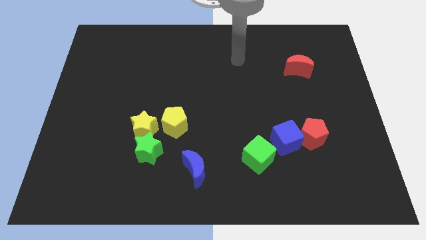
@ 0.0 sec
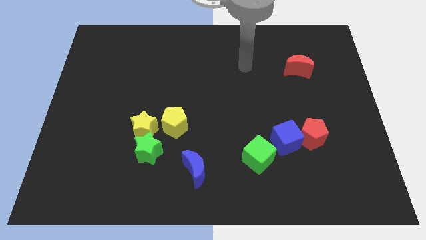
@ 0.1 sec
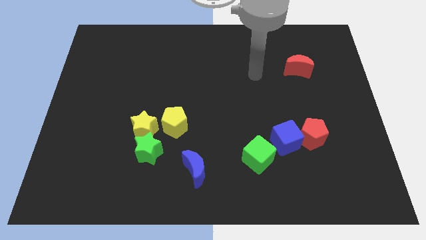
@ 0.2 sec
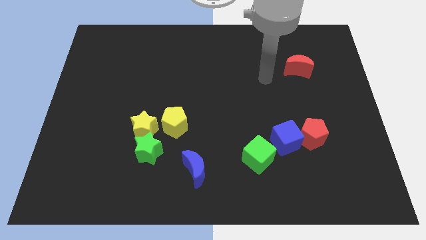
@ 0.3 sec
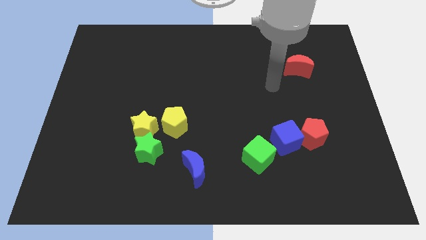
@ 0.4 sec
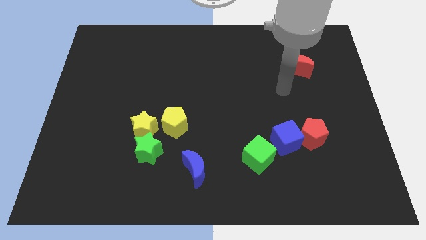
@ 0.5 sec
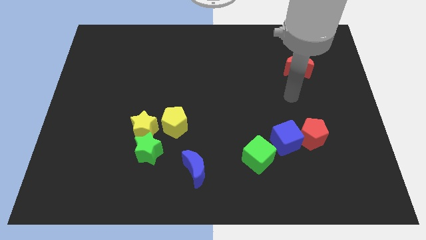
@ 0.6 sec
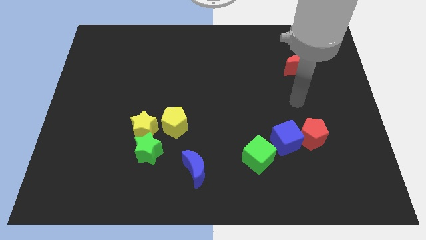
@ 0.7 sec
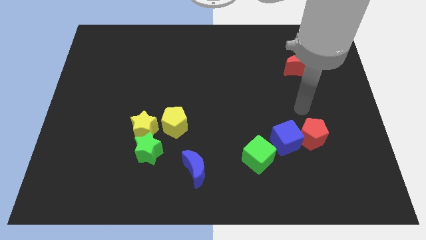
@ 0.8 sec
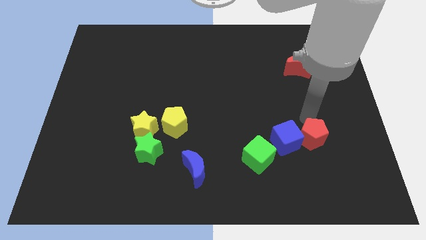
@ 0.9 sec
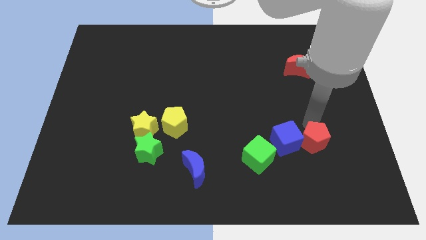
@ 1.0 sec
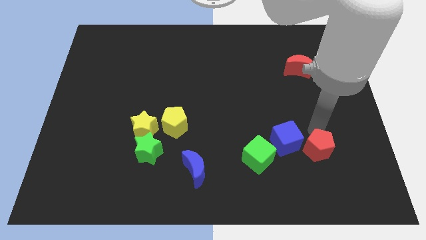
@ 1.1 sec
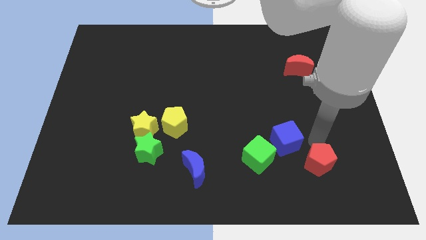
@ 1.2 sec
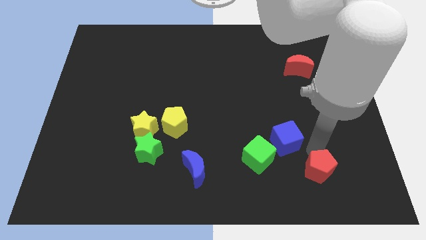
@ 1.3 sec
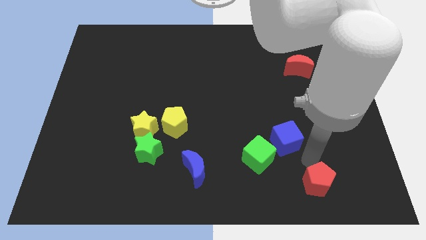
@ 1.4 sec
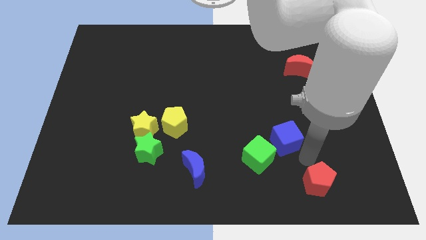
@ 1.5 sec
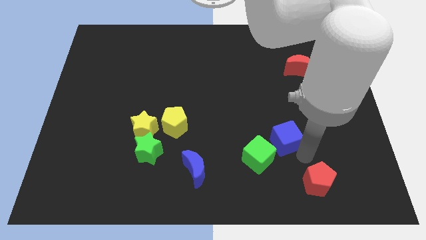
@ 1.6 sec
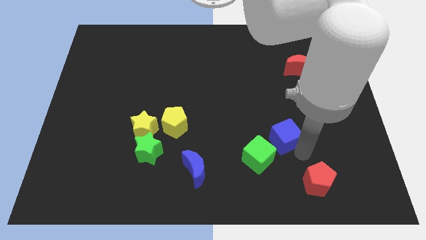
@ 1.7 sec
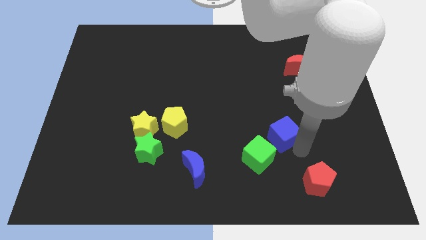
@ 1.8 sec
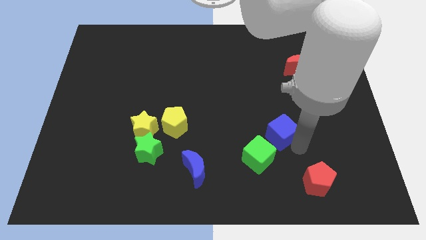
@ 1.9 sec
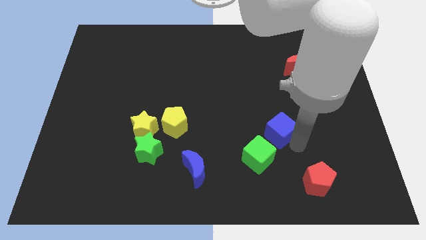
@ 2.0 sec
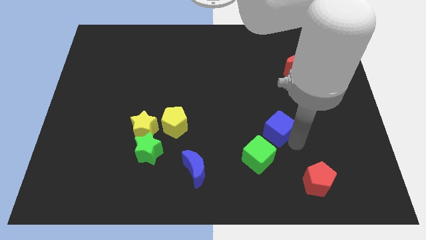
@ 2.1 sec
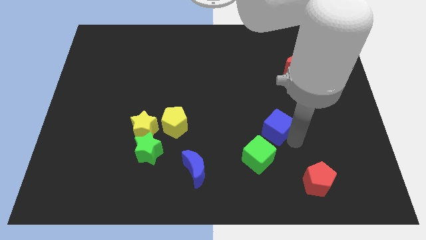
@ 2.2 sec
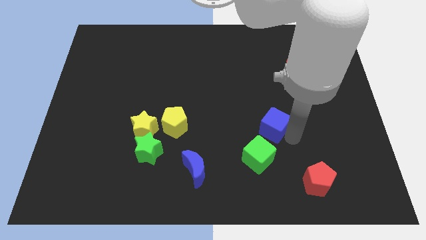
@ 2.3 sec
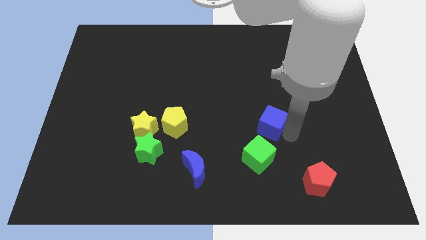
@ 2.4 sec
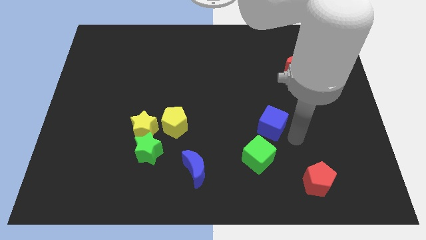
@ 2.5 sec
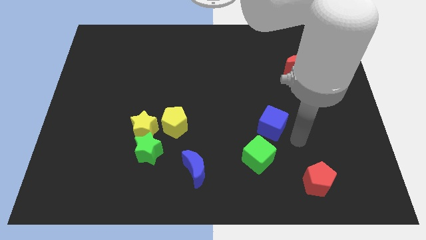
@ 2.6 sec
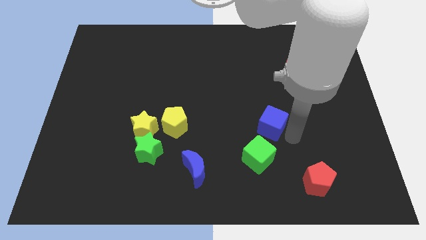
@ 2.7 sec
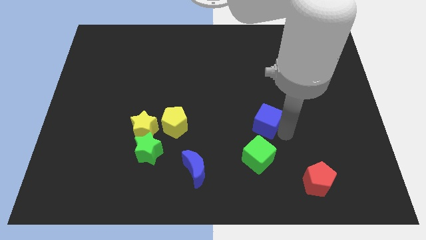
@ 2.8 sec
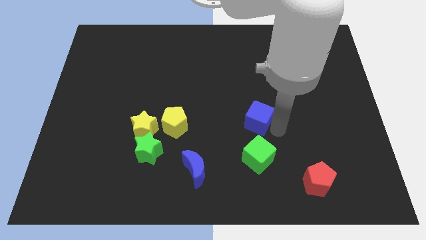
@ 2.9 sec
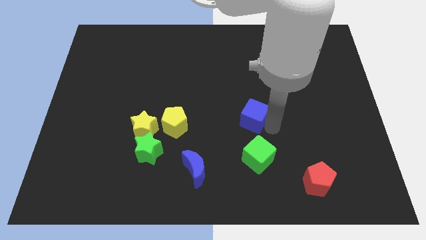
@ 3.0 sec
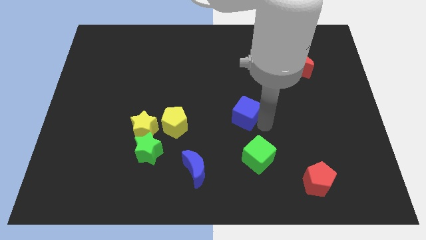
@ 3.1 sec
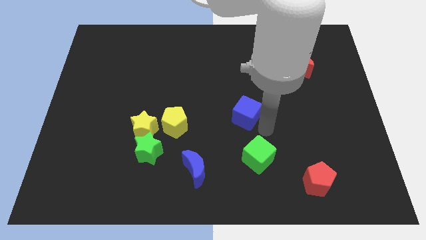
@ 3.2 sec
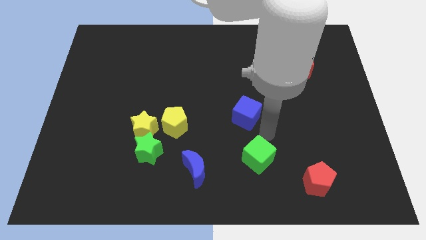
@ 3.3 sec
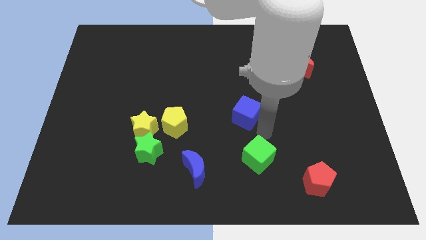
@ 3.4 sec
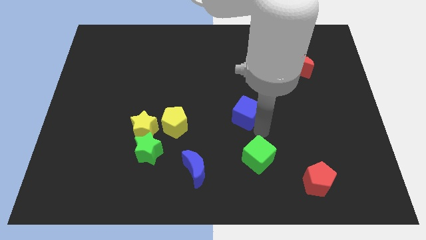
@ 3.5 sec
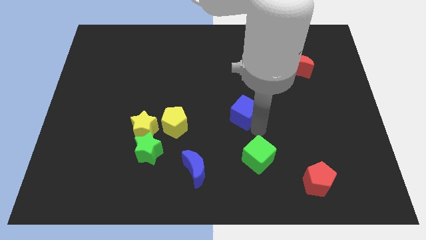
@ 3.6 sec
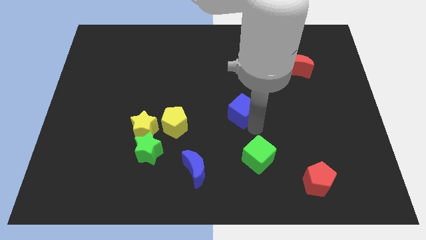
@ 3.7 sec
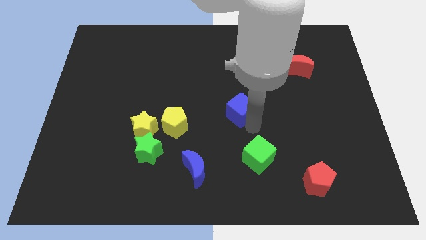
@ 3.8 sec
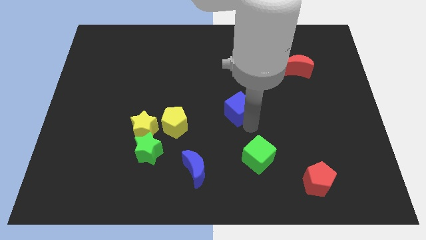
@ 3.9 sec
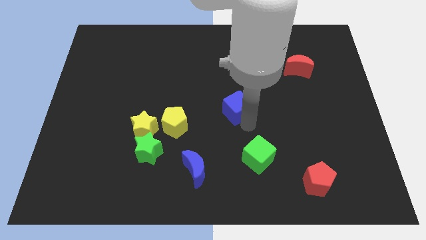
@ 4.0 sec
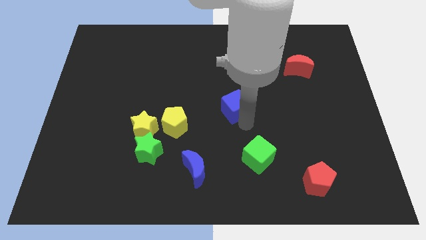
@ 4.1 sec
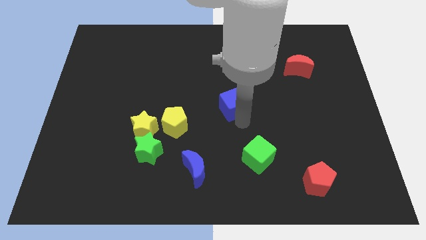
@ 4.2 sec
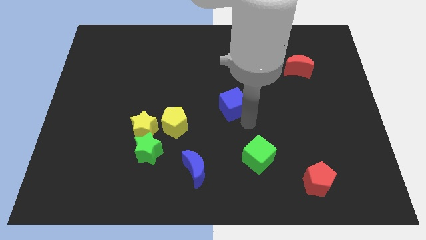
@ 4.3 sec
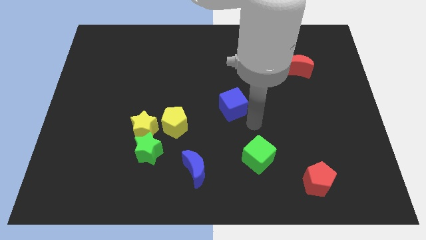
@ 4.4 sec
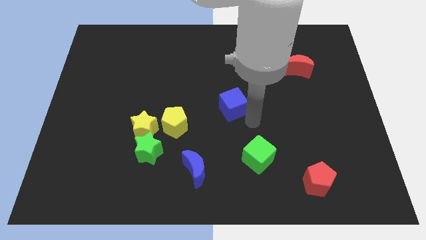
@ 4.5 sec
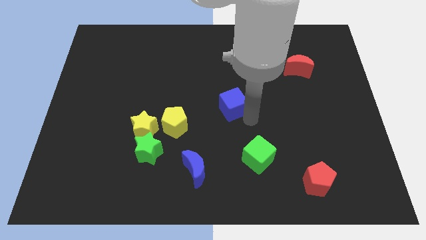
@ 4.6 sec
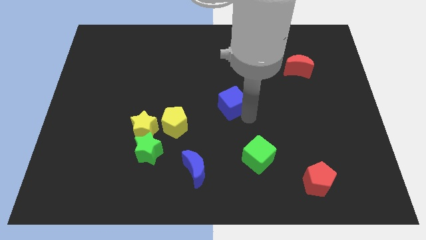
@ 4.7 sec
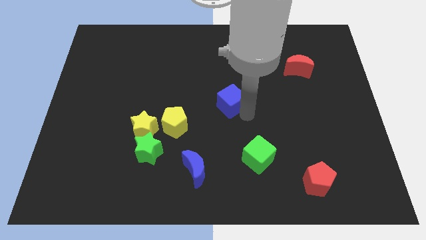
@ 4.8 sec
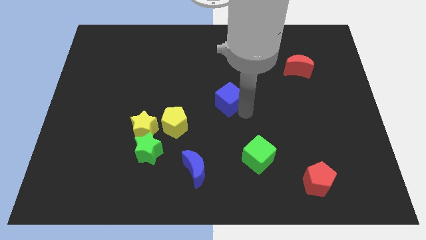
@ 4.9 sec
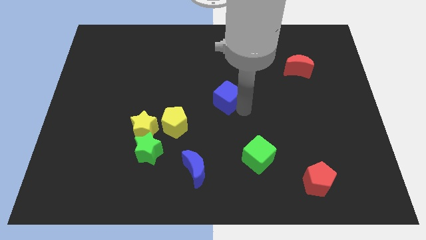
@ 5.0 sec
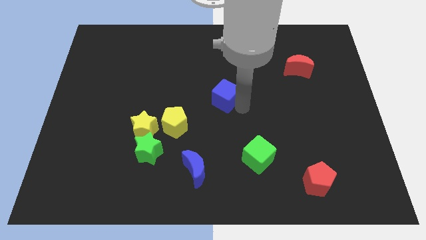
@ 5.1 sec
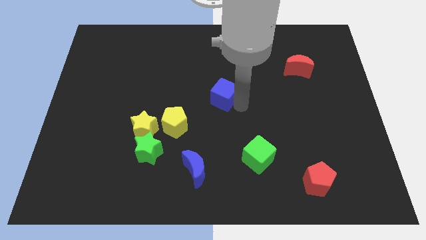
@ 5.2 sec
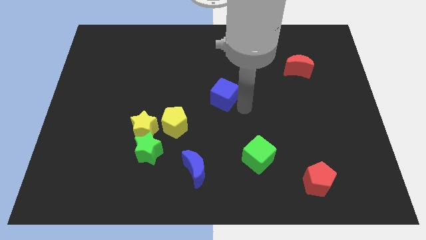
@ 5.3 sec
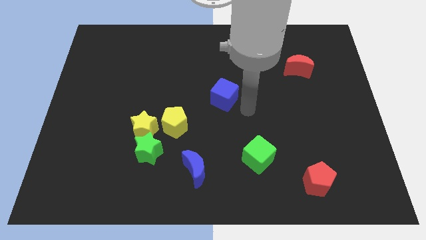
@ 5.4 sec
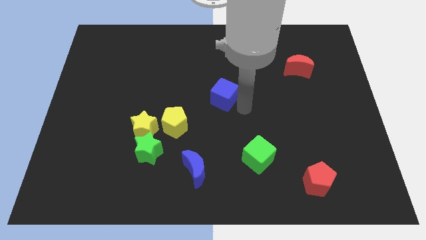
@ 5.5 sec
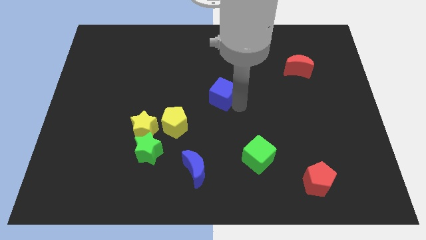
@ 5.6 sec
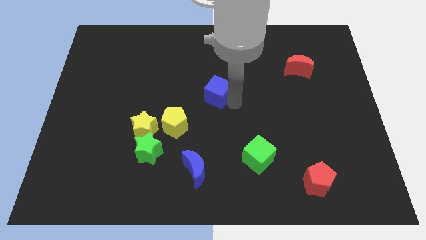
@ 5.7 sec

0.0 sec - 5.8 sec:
slide the blue cube upwards and then to the left

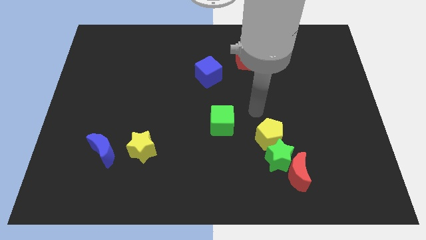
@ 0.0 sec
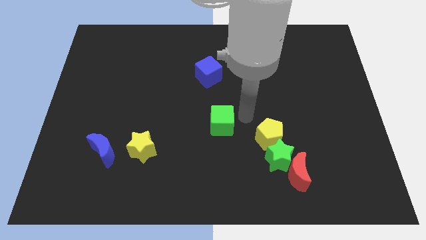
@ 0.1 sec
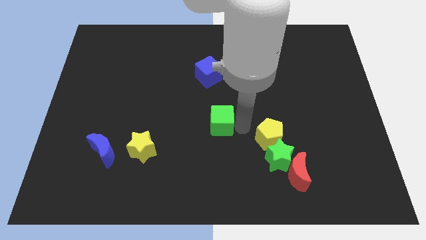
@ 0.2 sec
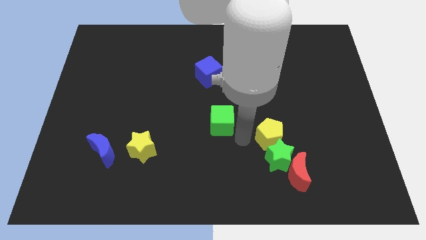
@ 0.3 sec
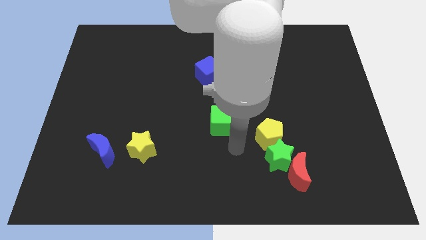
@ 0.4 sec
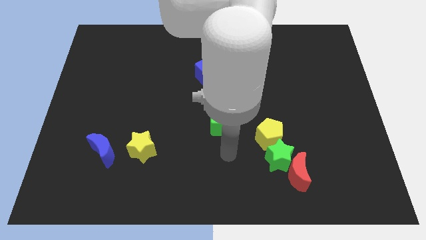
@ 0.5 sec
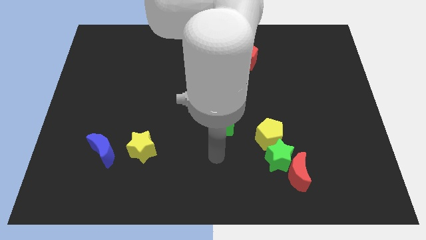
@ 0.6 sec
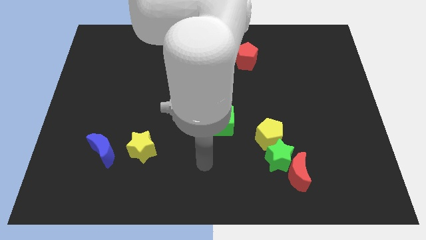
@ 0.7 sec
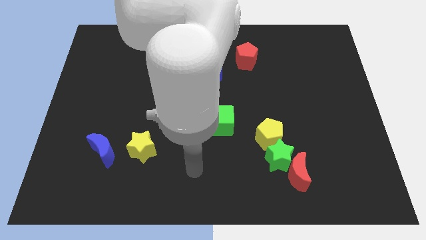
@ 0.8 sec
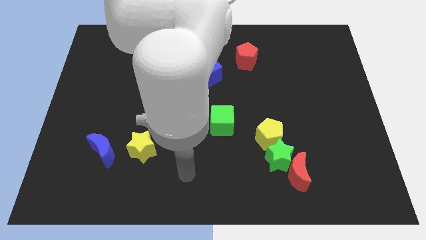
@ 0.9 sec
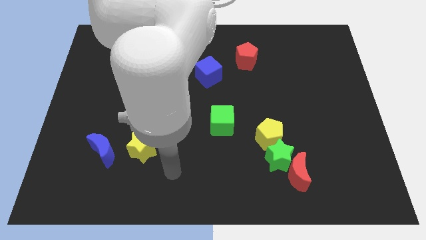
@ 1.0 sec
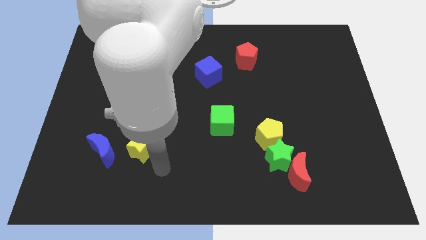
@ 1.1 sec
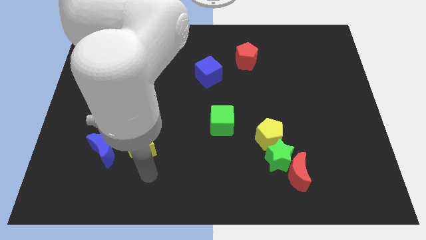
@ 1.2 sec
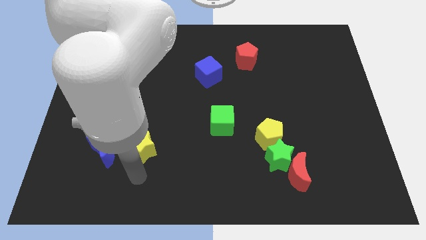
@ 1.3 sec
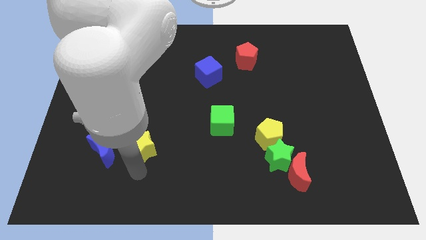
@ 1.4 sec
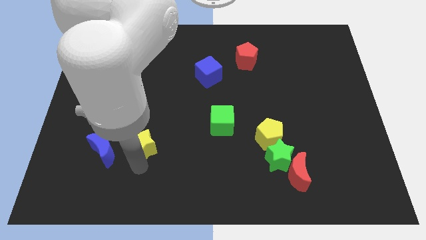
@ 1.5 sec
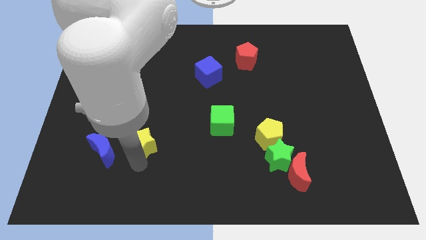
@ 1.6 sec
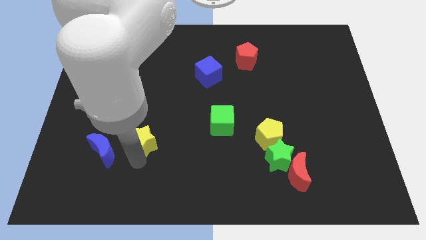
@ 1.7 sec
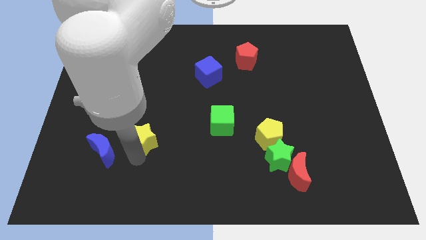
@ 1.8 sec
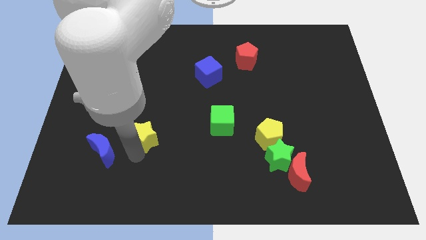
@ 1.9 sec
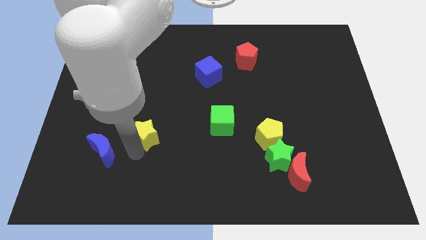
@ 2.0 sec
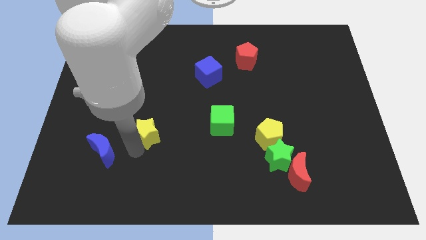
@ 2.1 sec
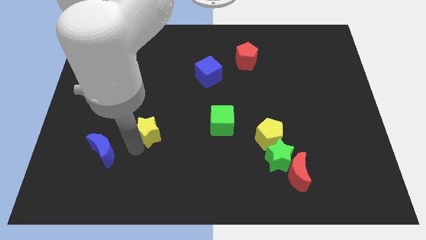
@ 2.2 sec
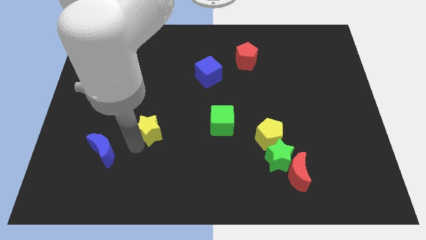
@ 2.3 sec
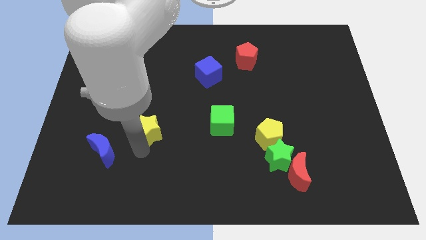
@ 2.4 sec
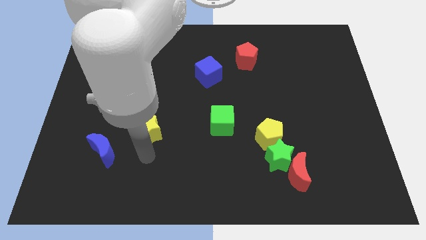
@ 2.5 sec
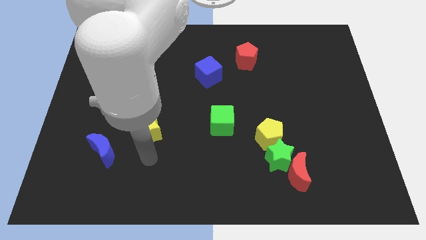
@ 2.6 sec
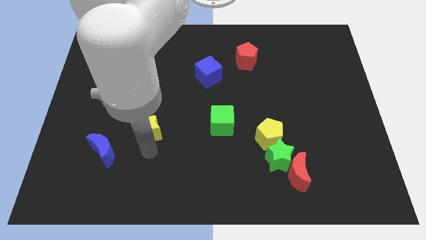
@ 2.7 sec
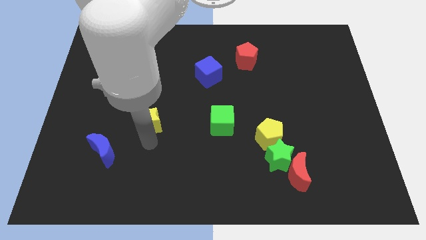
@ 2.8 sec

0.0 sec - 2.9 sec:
slightly push the yellow star upwards
